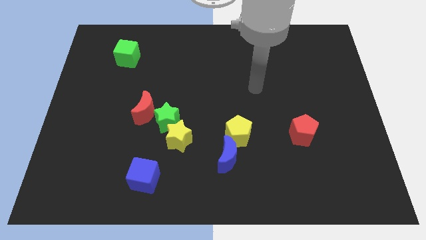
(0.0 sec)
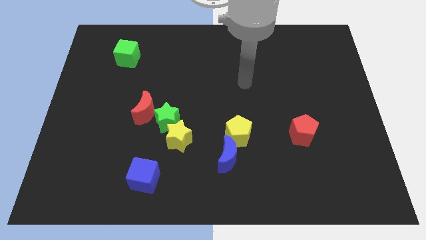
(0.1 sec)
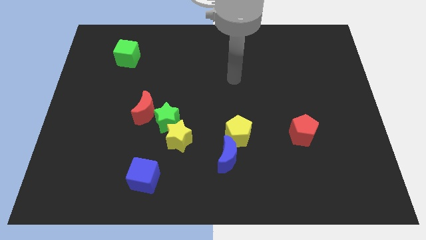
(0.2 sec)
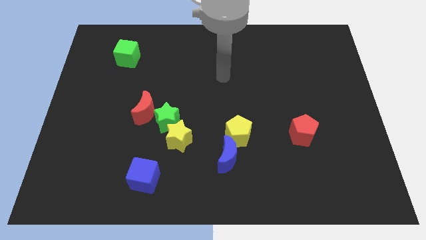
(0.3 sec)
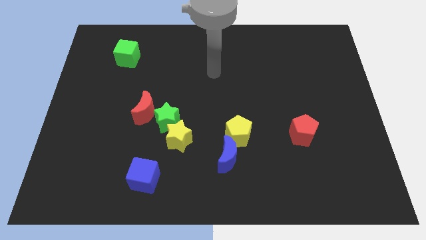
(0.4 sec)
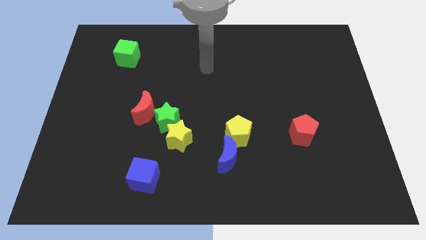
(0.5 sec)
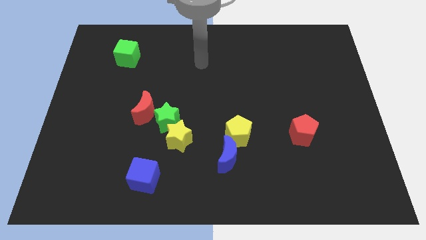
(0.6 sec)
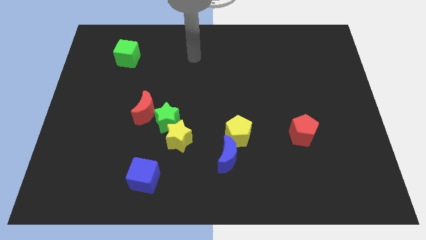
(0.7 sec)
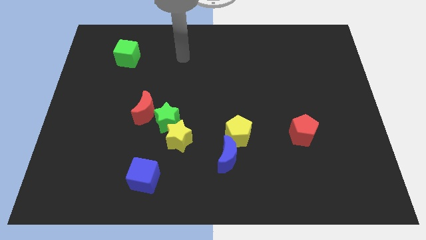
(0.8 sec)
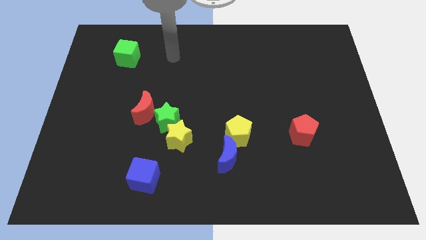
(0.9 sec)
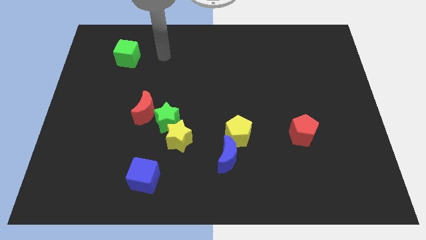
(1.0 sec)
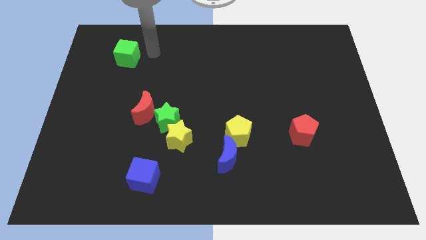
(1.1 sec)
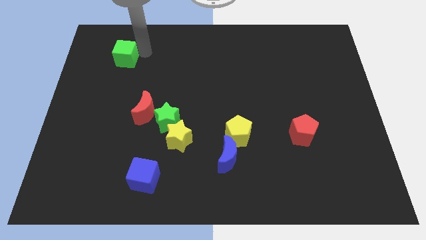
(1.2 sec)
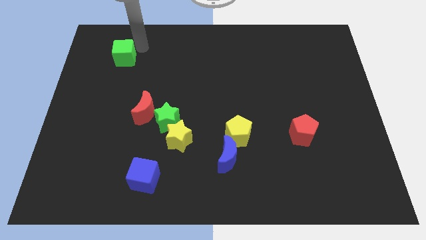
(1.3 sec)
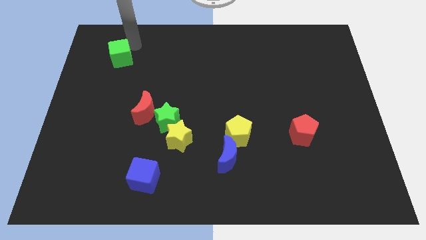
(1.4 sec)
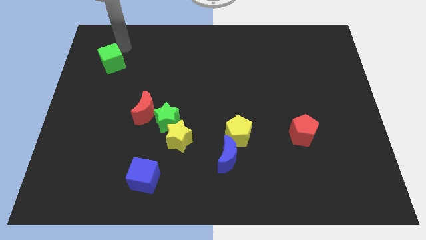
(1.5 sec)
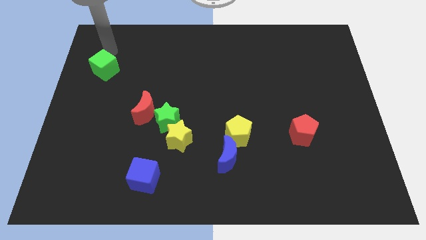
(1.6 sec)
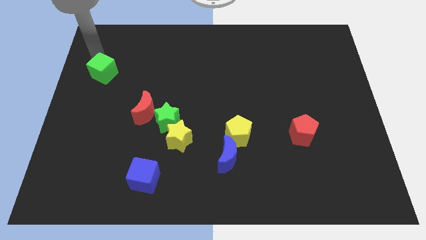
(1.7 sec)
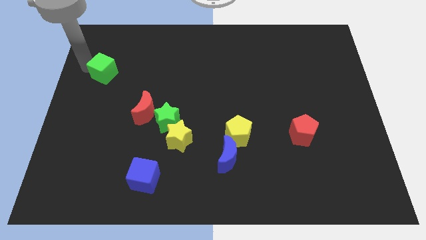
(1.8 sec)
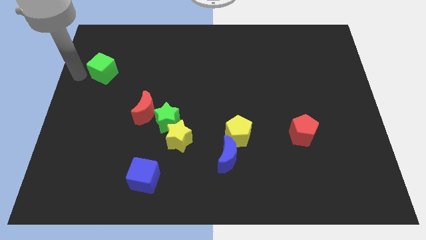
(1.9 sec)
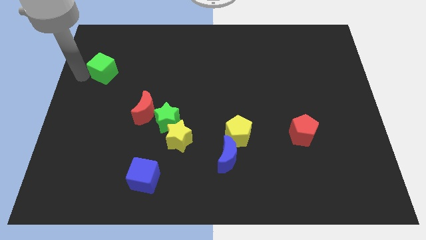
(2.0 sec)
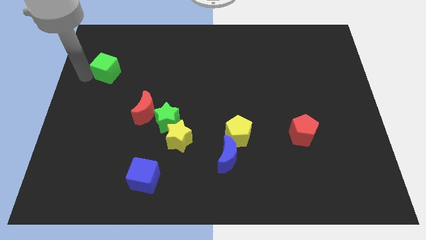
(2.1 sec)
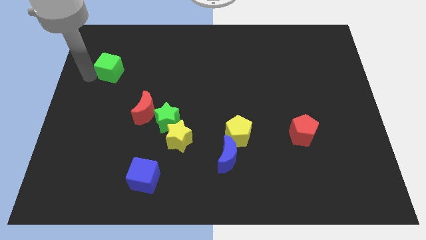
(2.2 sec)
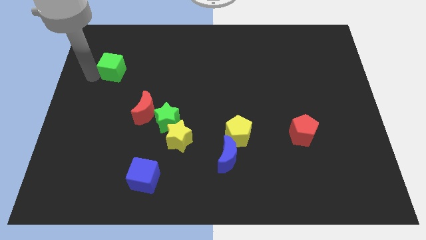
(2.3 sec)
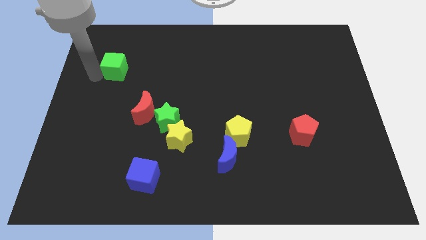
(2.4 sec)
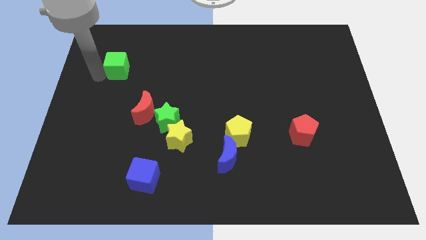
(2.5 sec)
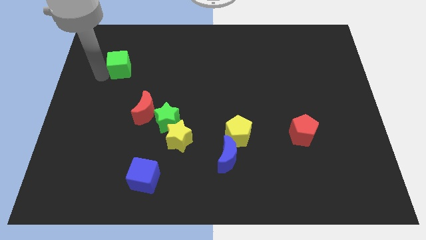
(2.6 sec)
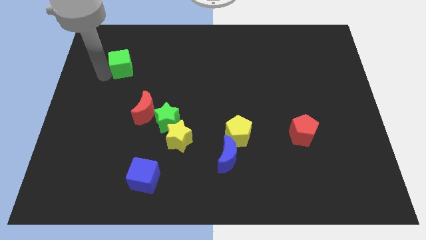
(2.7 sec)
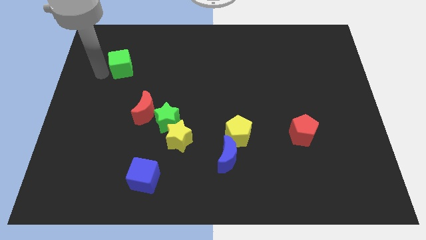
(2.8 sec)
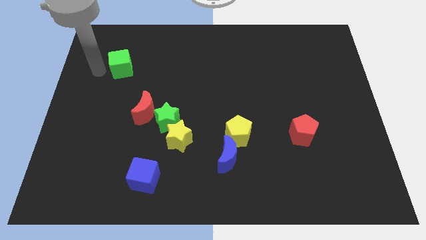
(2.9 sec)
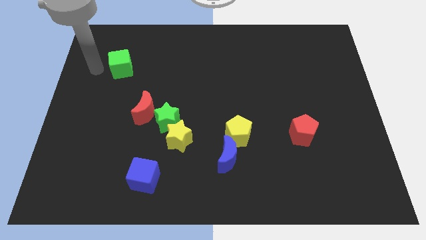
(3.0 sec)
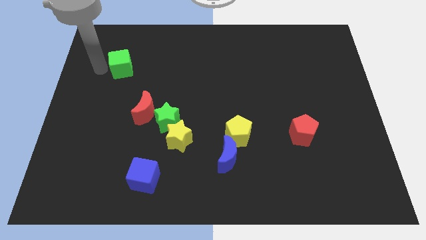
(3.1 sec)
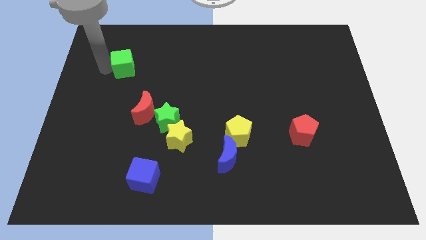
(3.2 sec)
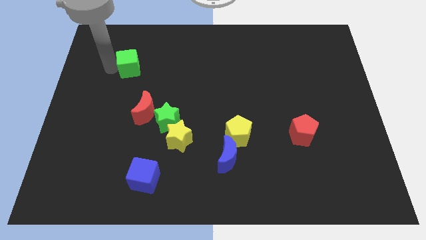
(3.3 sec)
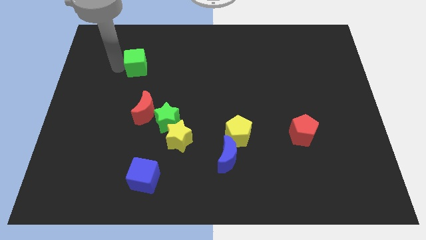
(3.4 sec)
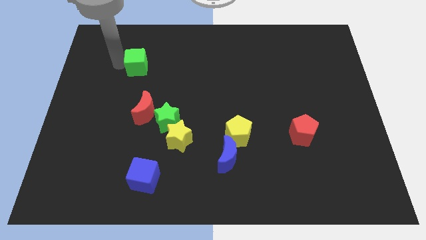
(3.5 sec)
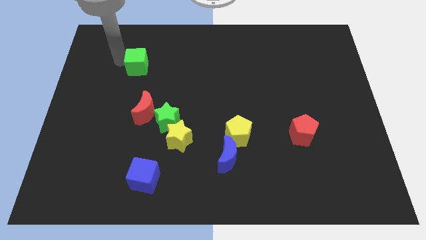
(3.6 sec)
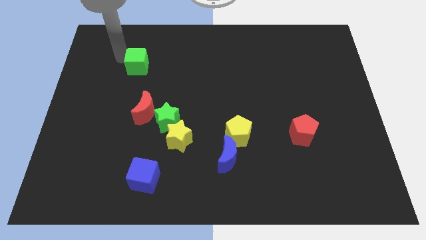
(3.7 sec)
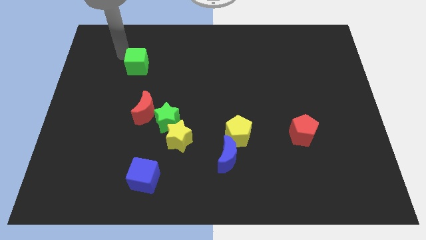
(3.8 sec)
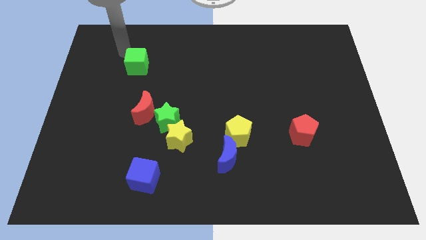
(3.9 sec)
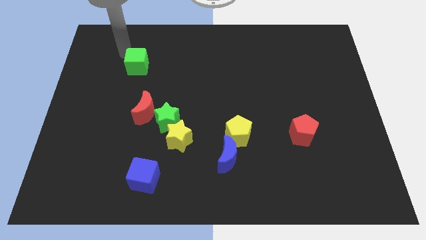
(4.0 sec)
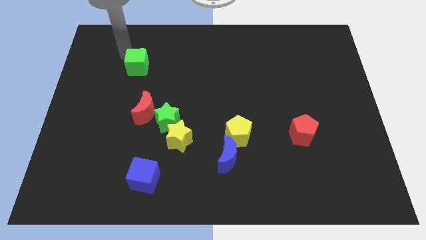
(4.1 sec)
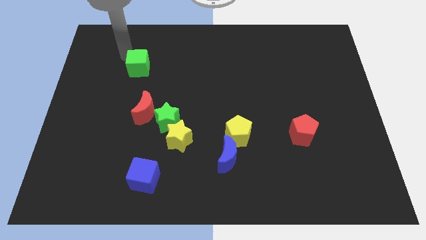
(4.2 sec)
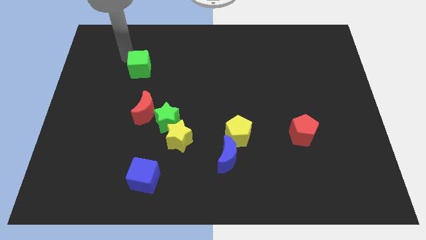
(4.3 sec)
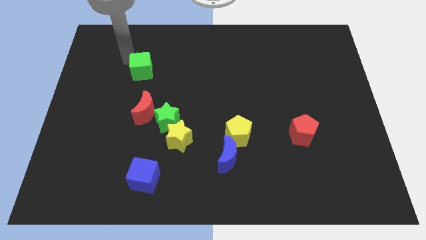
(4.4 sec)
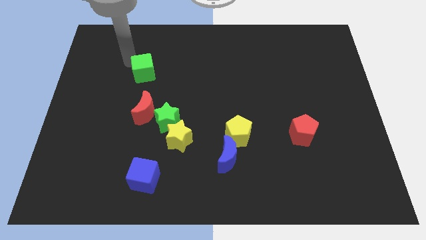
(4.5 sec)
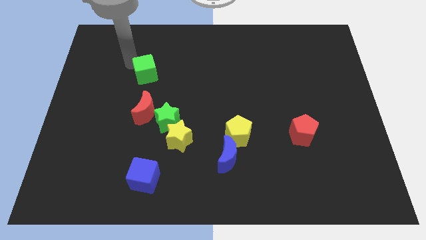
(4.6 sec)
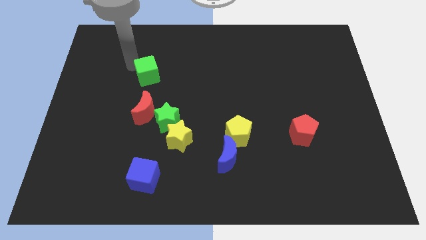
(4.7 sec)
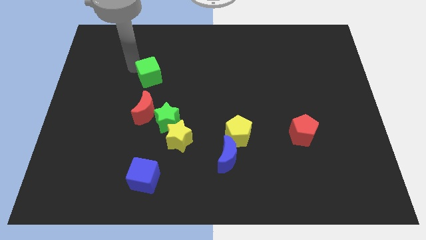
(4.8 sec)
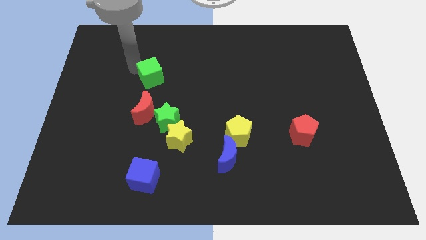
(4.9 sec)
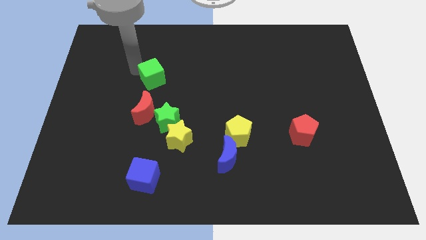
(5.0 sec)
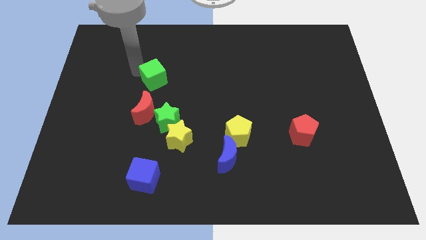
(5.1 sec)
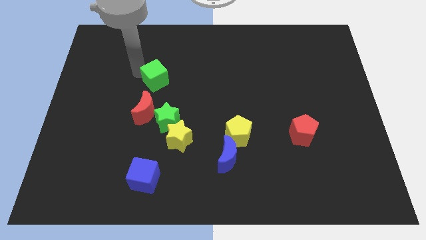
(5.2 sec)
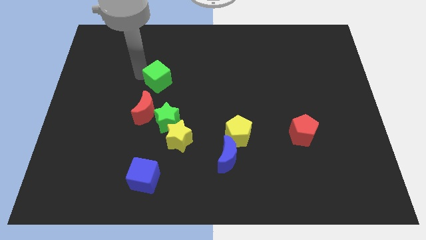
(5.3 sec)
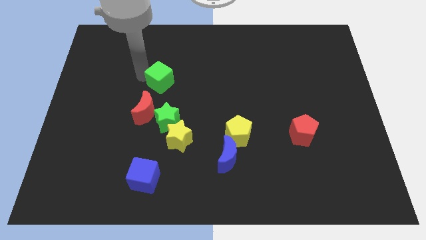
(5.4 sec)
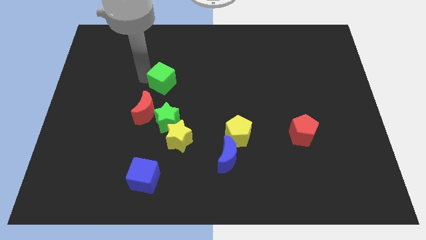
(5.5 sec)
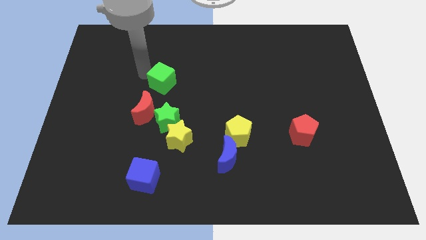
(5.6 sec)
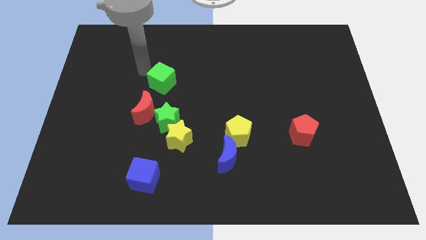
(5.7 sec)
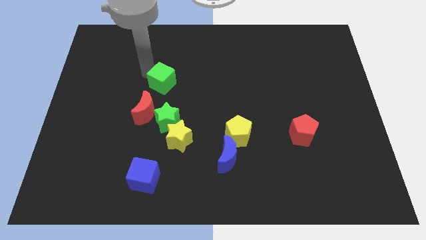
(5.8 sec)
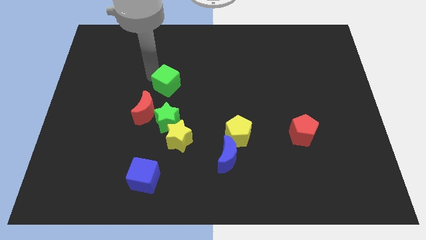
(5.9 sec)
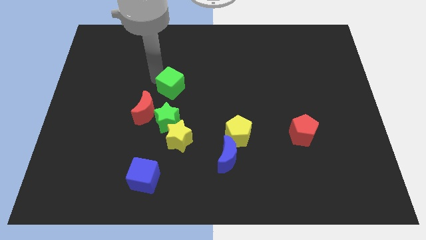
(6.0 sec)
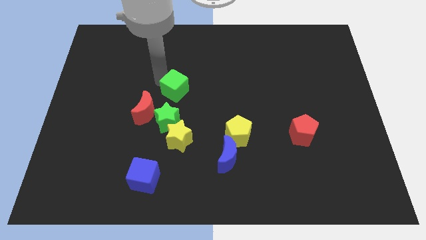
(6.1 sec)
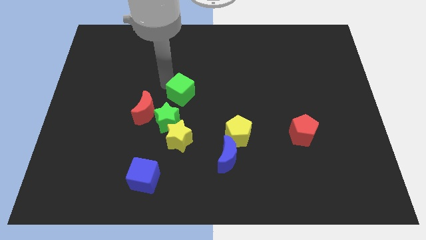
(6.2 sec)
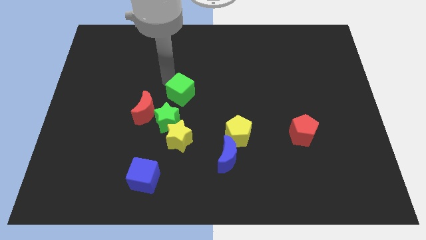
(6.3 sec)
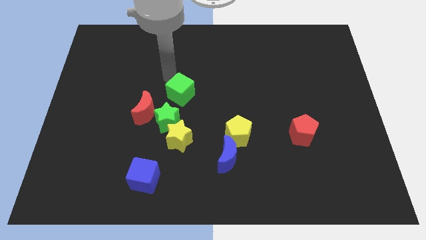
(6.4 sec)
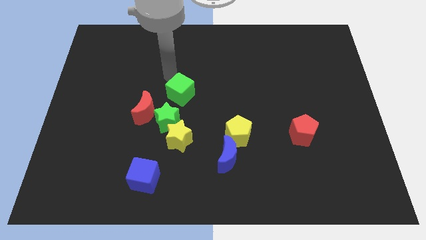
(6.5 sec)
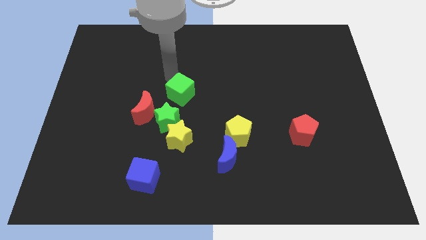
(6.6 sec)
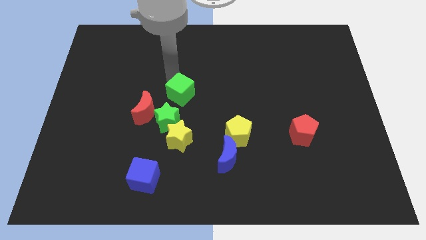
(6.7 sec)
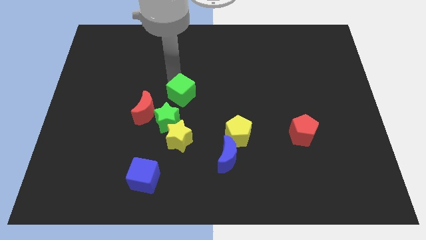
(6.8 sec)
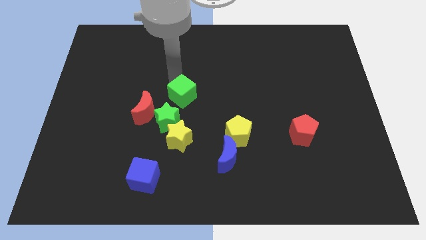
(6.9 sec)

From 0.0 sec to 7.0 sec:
slide the green cube down and right diagonally

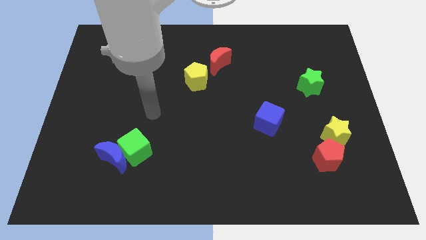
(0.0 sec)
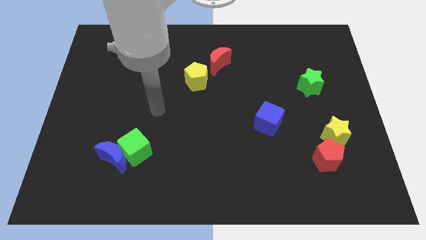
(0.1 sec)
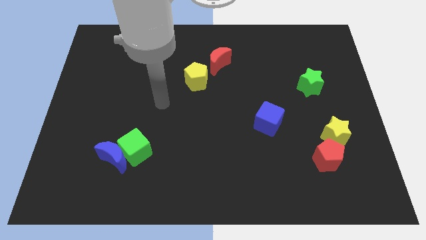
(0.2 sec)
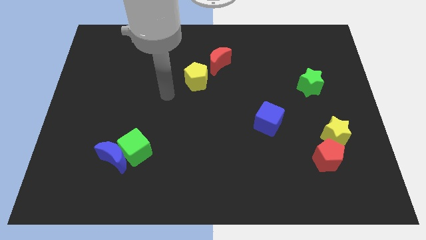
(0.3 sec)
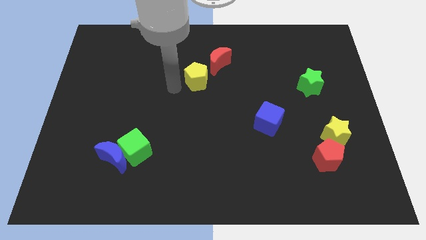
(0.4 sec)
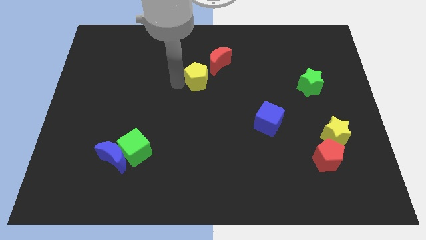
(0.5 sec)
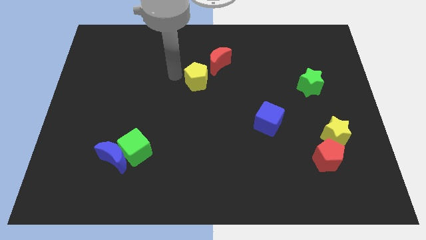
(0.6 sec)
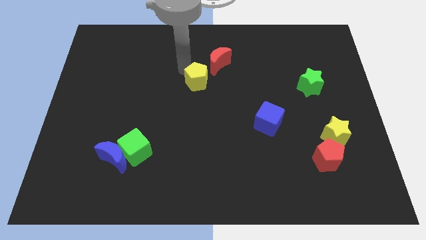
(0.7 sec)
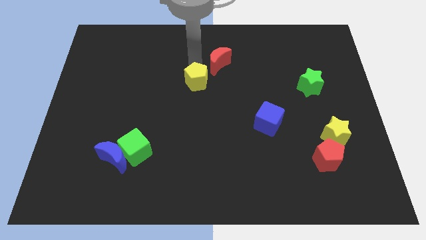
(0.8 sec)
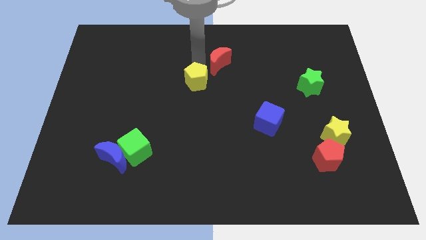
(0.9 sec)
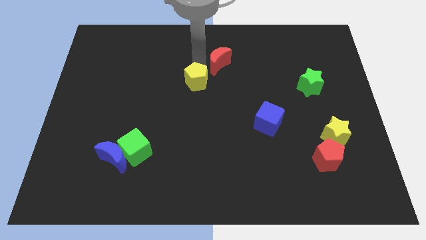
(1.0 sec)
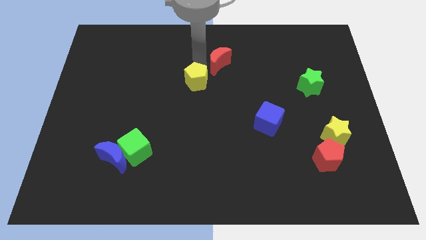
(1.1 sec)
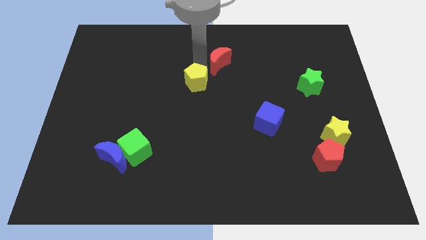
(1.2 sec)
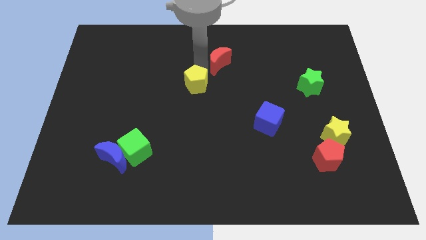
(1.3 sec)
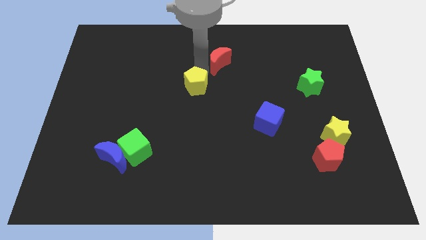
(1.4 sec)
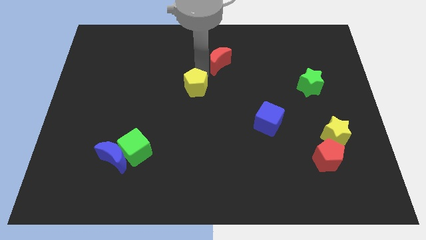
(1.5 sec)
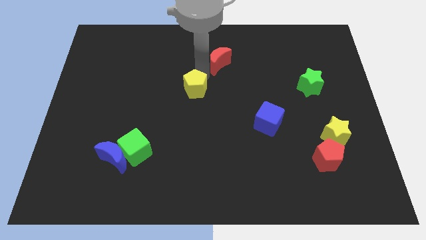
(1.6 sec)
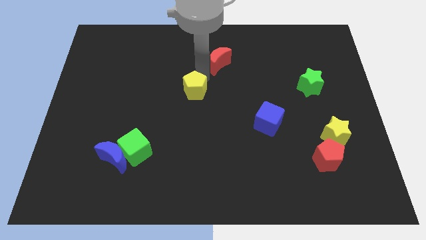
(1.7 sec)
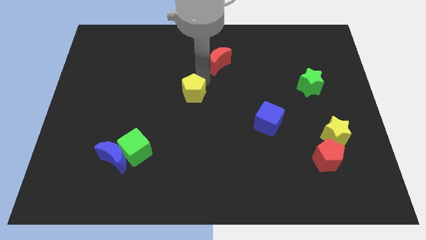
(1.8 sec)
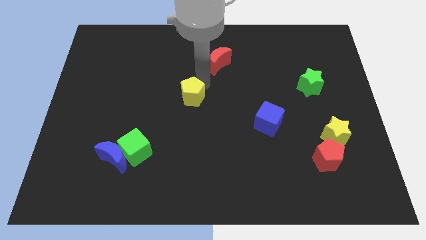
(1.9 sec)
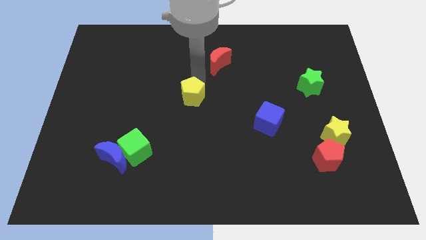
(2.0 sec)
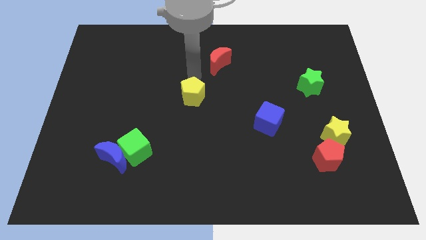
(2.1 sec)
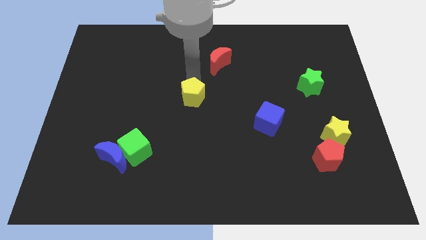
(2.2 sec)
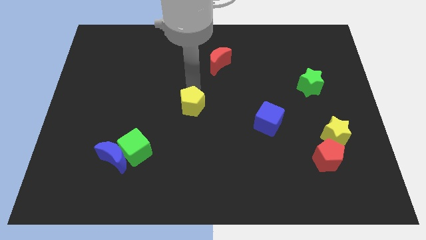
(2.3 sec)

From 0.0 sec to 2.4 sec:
slightly slide the yellow pentagon downwards
